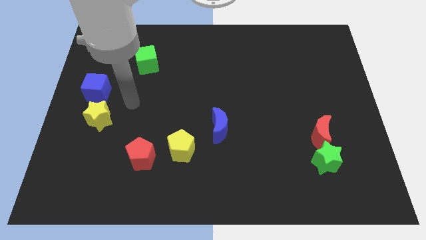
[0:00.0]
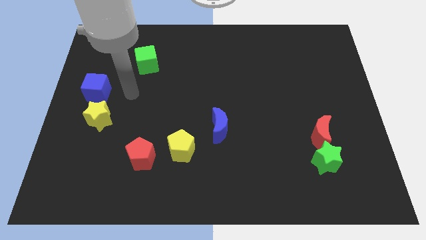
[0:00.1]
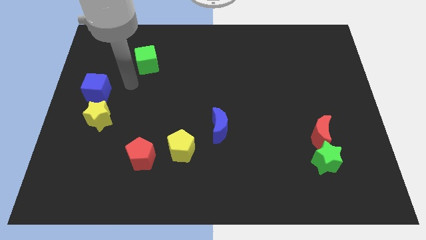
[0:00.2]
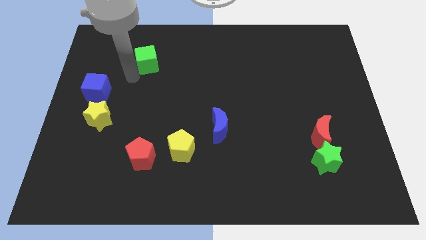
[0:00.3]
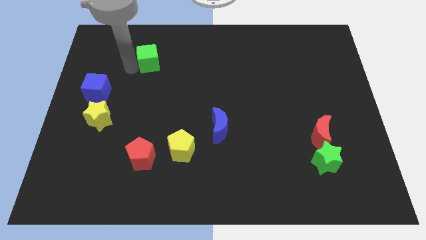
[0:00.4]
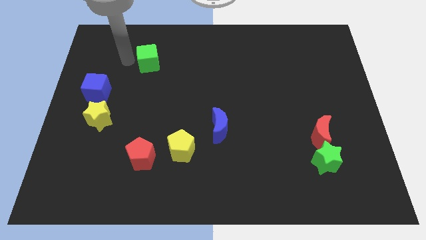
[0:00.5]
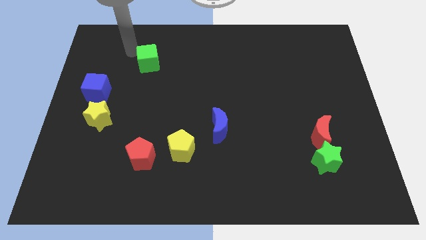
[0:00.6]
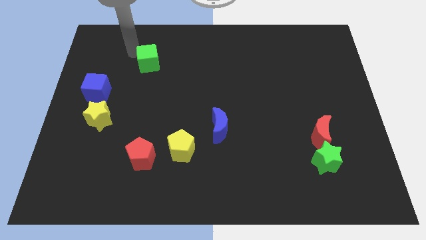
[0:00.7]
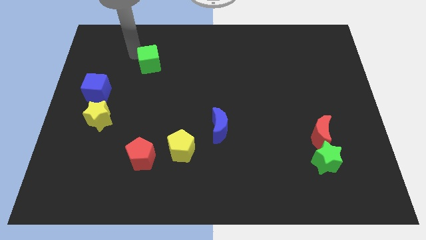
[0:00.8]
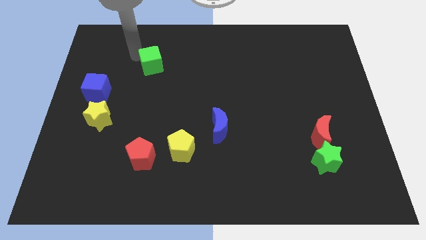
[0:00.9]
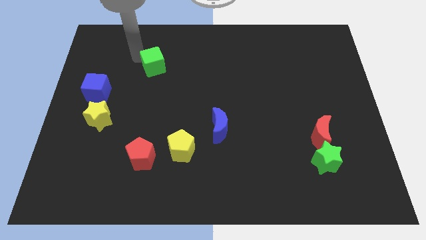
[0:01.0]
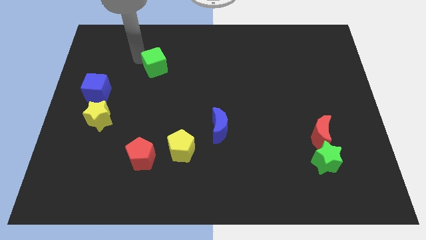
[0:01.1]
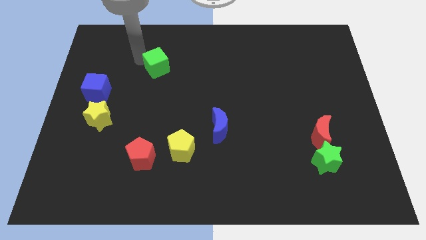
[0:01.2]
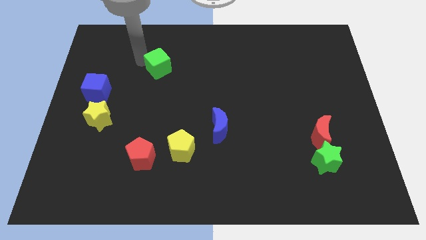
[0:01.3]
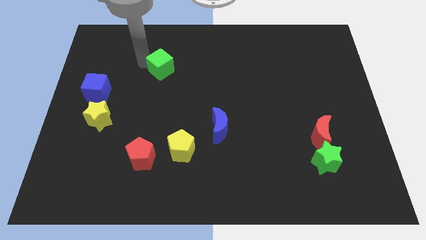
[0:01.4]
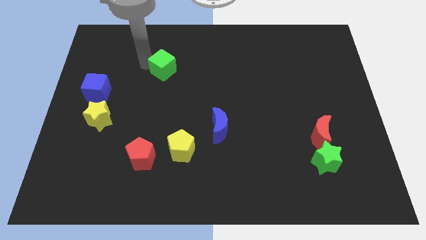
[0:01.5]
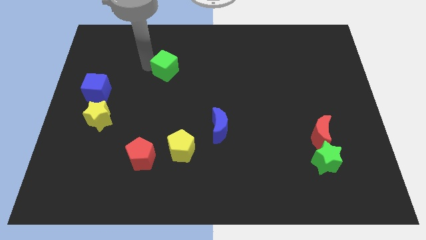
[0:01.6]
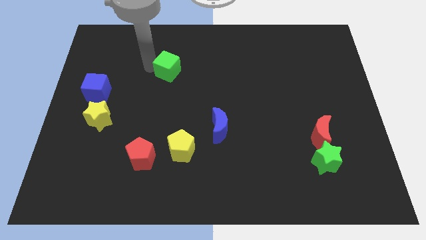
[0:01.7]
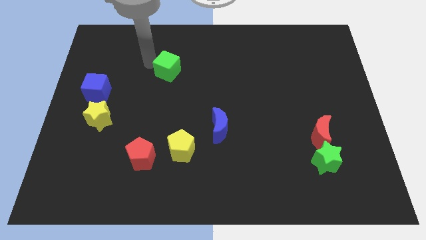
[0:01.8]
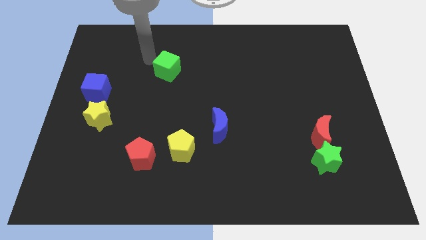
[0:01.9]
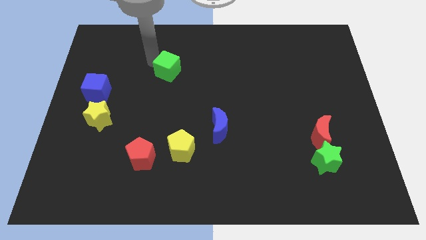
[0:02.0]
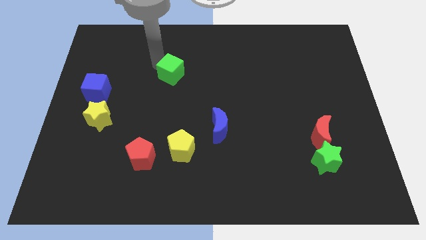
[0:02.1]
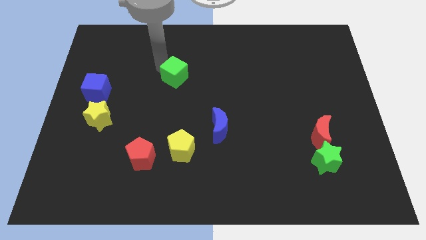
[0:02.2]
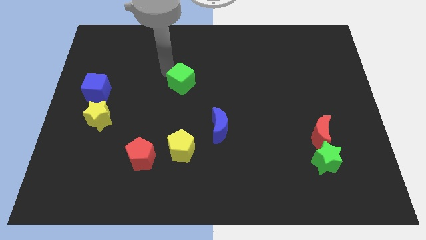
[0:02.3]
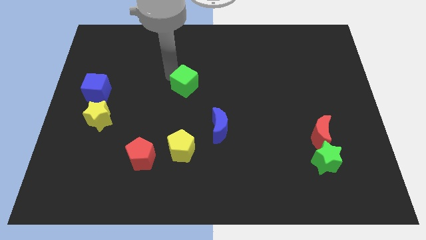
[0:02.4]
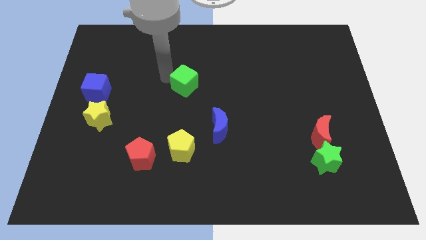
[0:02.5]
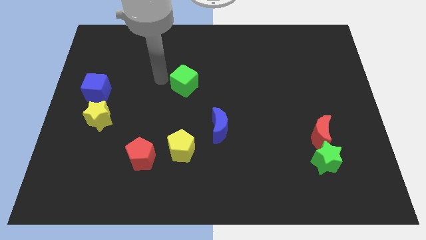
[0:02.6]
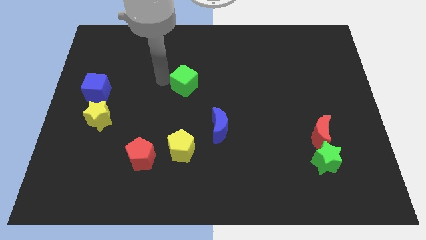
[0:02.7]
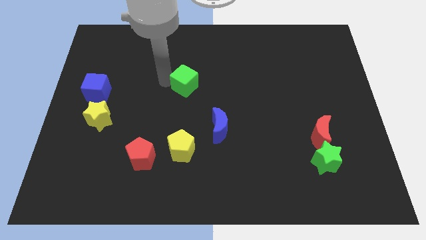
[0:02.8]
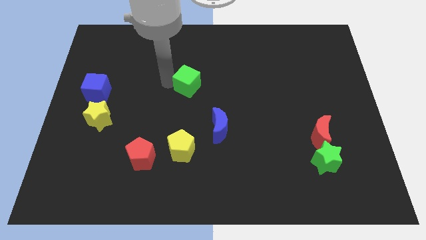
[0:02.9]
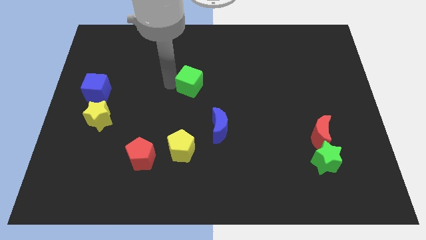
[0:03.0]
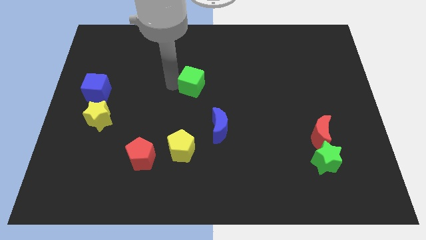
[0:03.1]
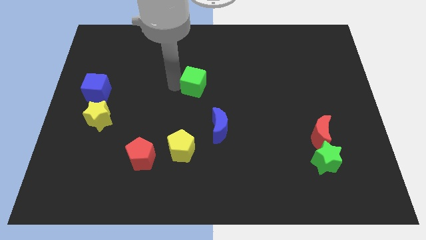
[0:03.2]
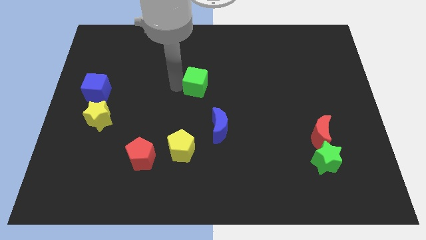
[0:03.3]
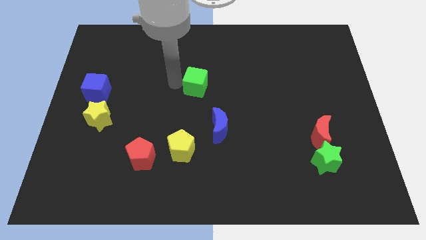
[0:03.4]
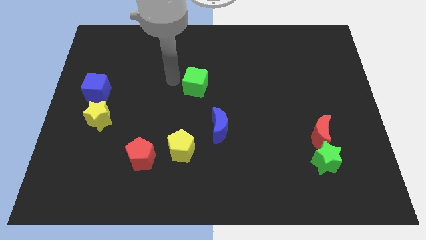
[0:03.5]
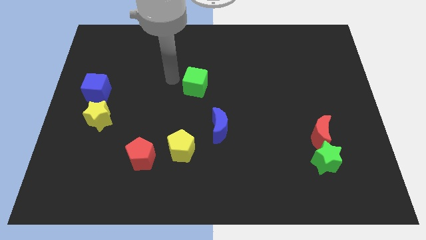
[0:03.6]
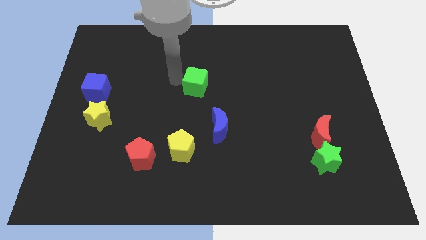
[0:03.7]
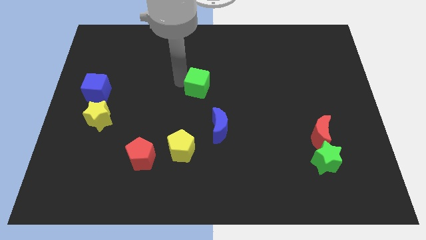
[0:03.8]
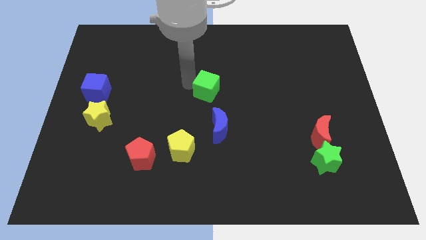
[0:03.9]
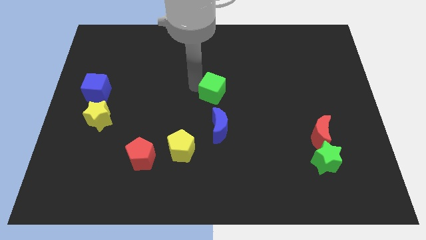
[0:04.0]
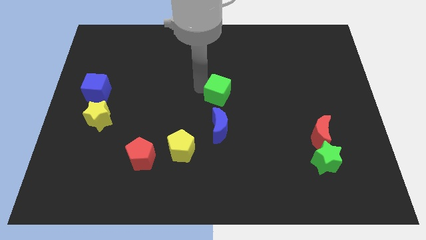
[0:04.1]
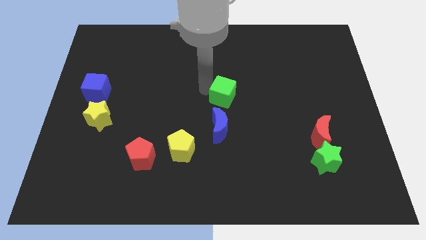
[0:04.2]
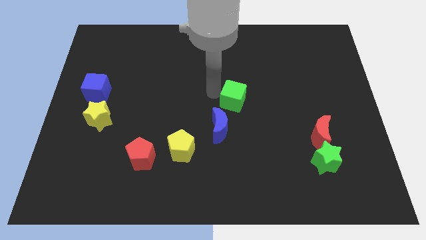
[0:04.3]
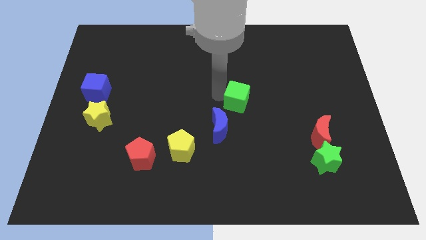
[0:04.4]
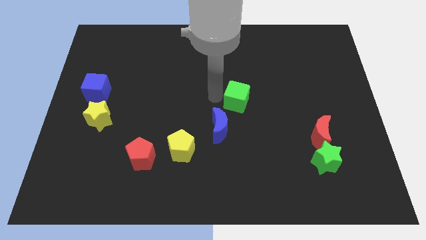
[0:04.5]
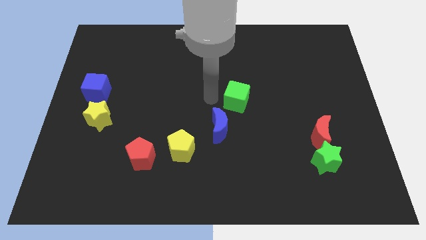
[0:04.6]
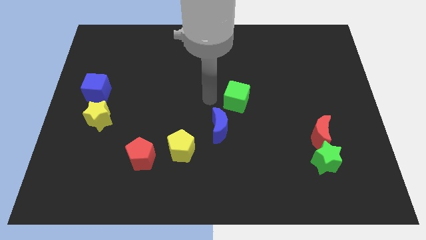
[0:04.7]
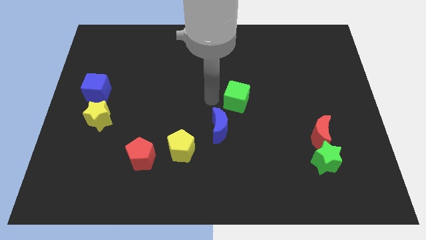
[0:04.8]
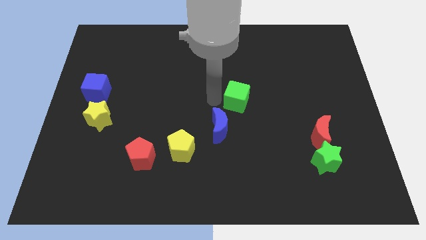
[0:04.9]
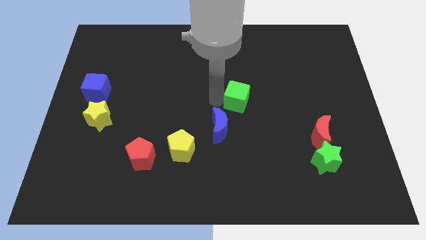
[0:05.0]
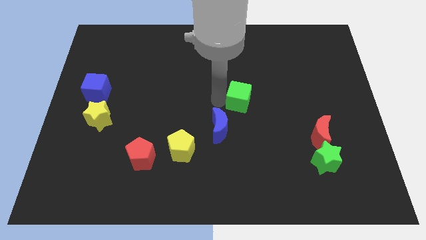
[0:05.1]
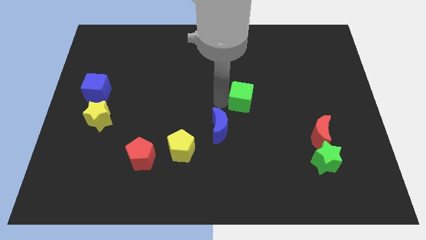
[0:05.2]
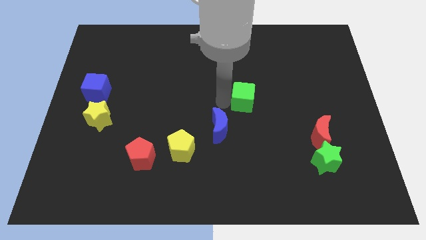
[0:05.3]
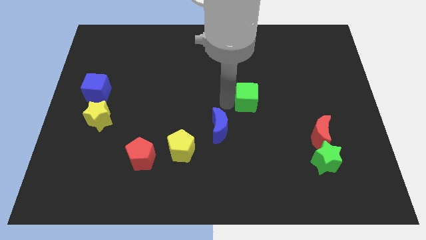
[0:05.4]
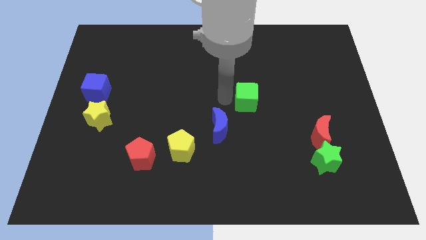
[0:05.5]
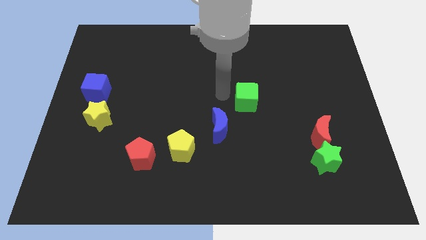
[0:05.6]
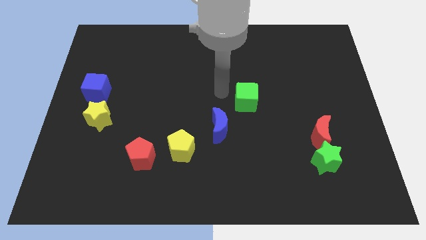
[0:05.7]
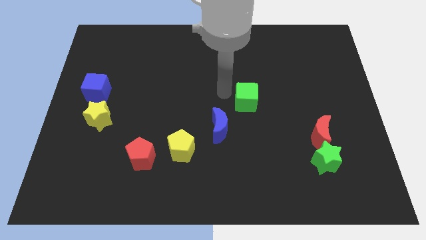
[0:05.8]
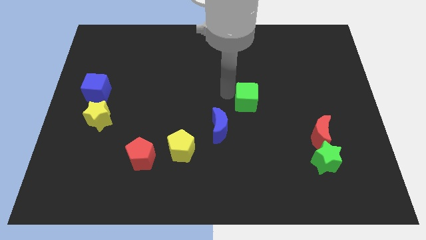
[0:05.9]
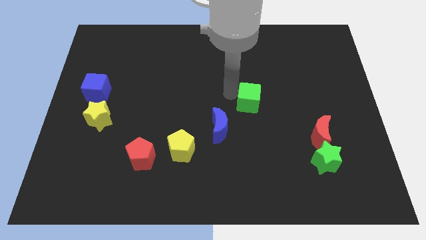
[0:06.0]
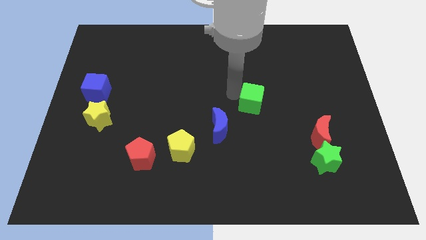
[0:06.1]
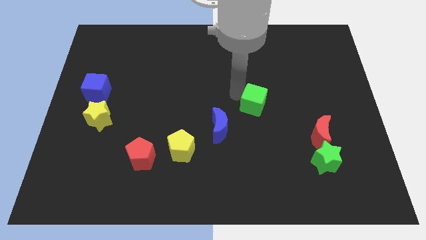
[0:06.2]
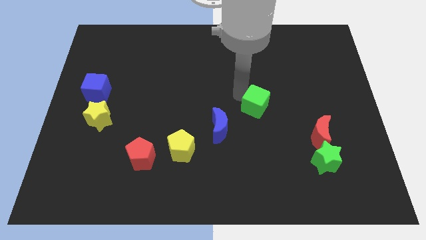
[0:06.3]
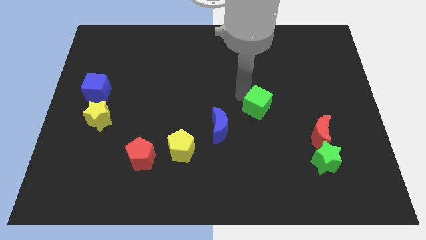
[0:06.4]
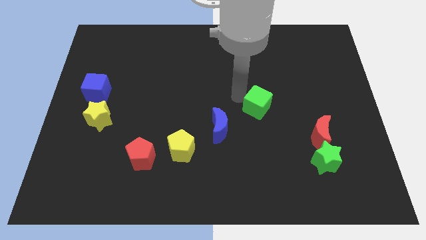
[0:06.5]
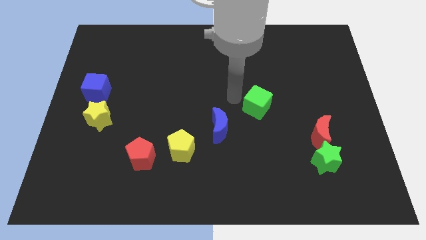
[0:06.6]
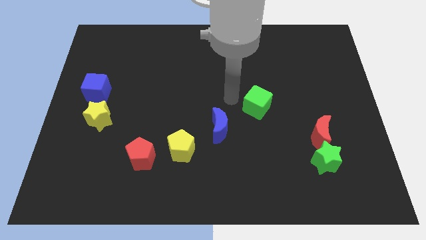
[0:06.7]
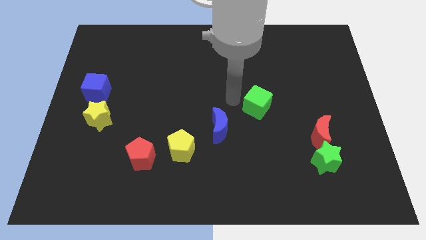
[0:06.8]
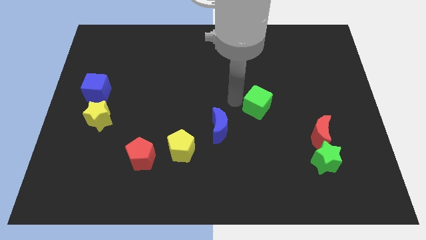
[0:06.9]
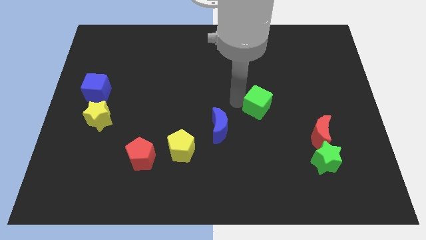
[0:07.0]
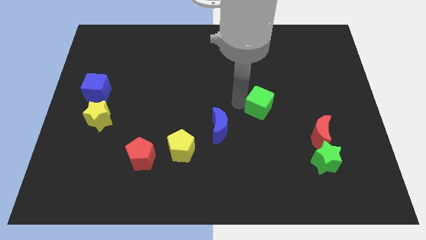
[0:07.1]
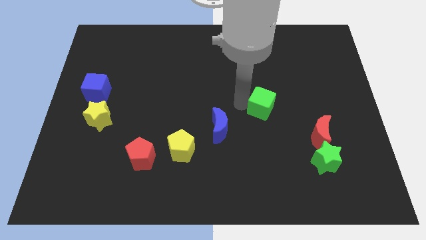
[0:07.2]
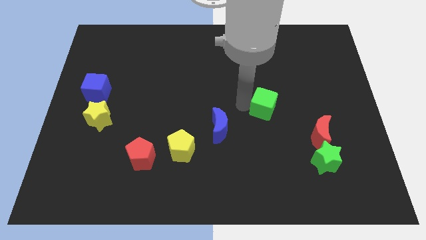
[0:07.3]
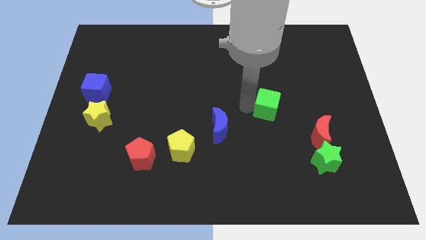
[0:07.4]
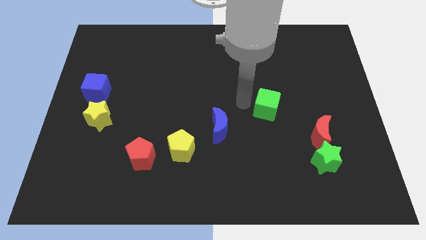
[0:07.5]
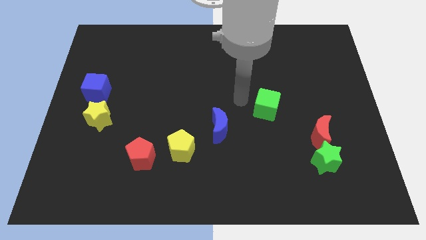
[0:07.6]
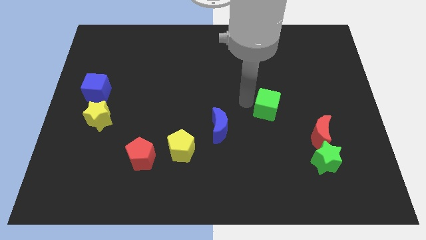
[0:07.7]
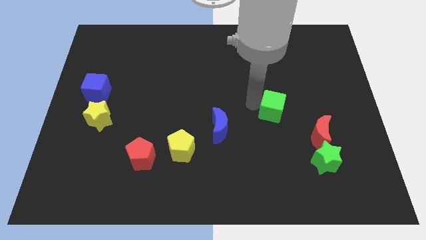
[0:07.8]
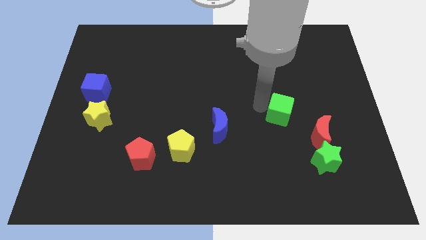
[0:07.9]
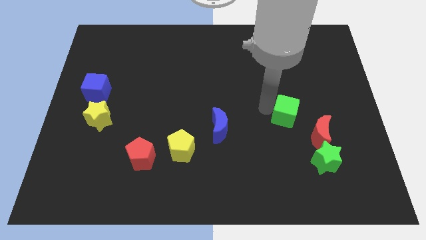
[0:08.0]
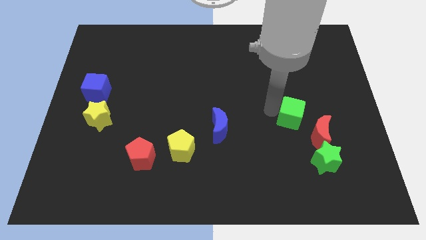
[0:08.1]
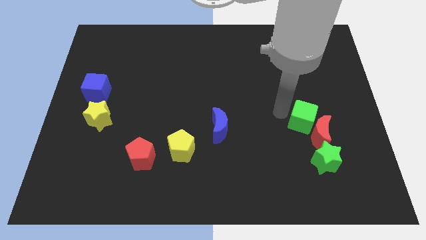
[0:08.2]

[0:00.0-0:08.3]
put the green cube next to the red moon
